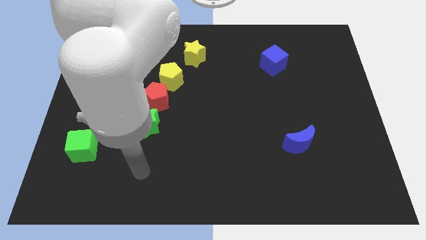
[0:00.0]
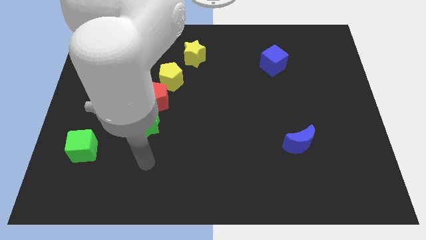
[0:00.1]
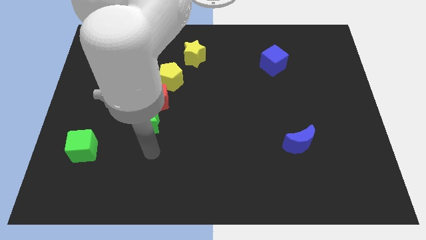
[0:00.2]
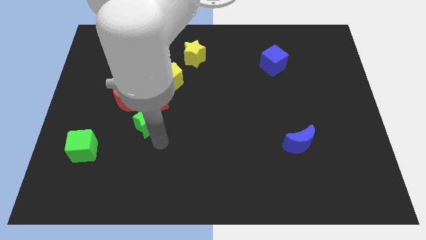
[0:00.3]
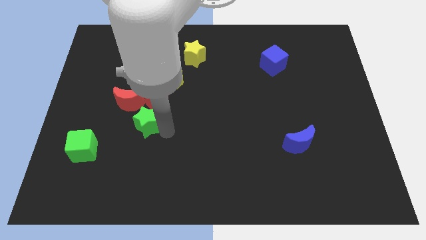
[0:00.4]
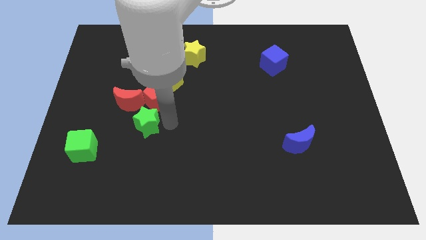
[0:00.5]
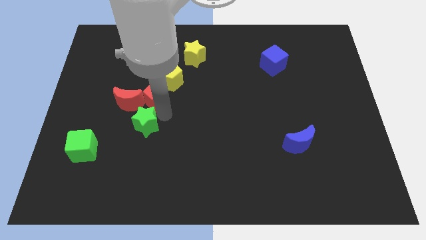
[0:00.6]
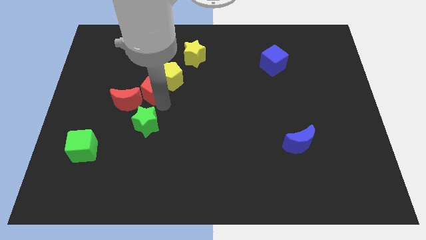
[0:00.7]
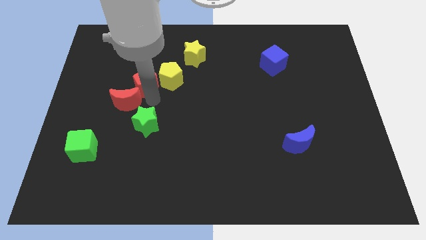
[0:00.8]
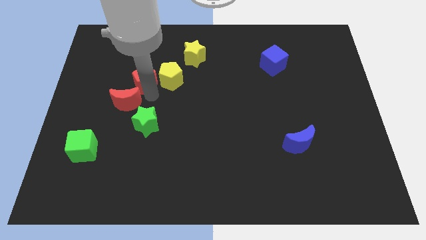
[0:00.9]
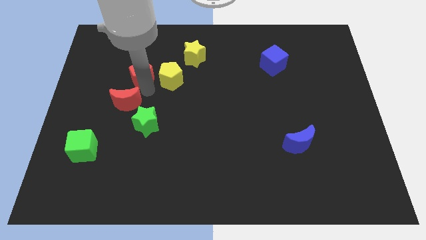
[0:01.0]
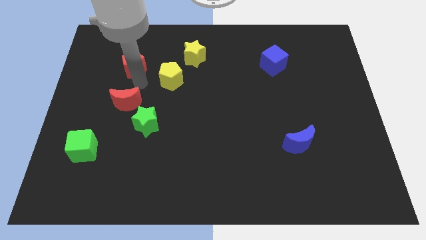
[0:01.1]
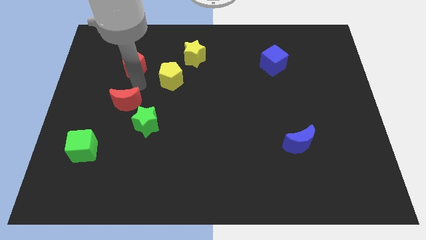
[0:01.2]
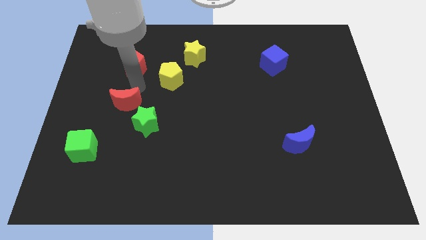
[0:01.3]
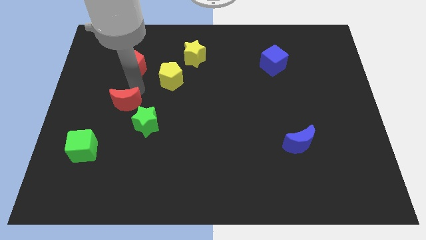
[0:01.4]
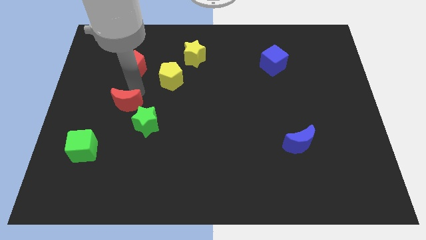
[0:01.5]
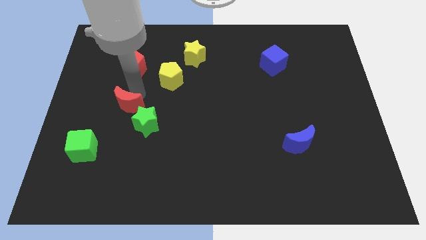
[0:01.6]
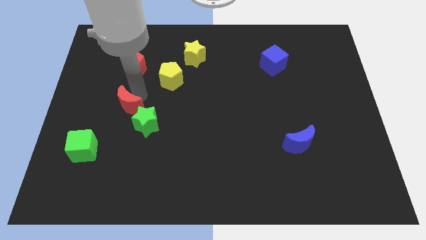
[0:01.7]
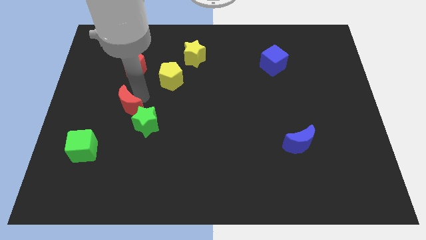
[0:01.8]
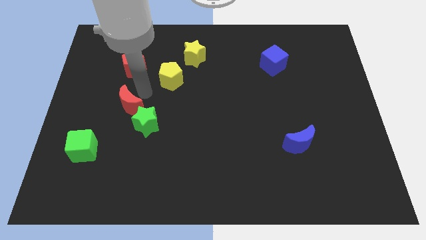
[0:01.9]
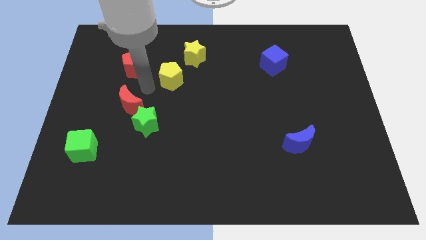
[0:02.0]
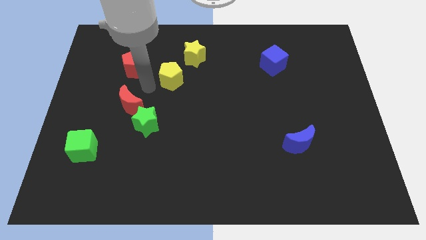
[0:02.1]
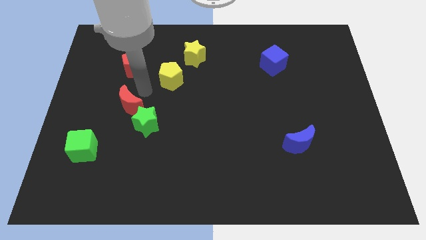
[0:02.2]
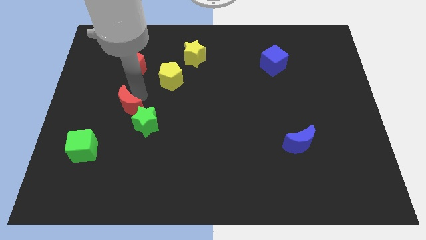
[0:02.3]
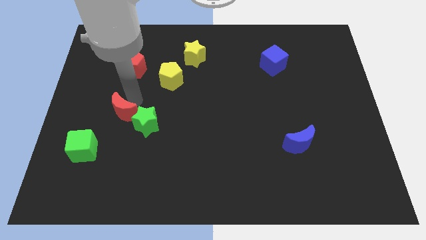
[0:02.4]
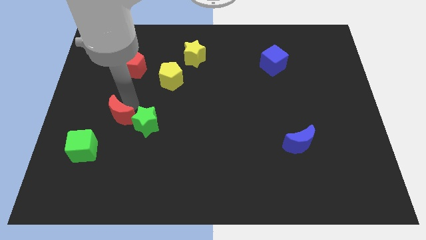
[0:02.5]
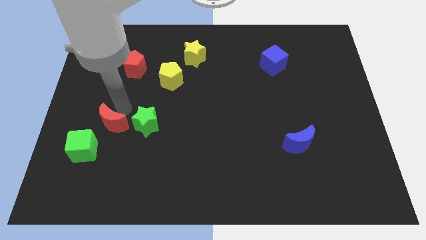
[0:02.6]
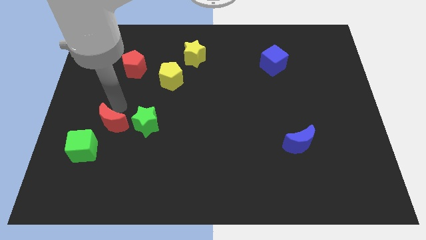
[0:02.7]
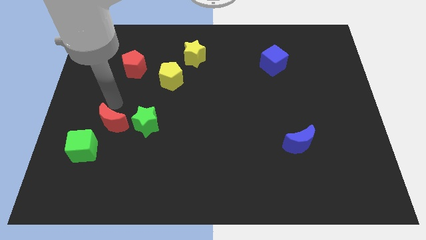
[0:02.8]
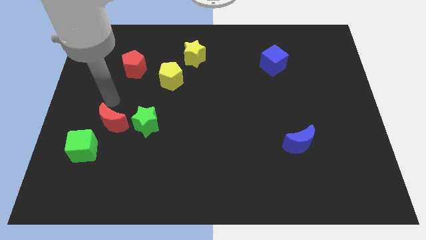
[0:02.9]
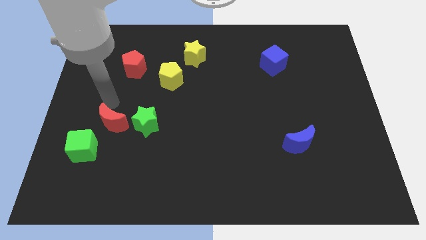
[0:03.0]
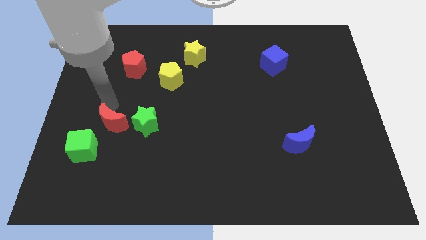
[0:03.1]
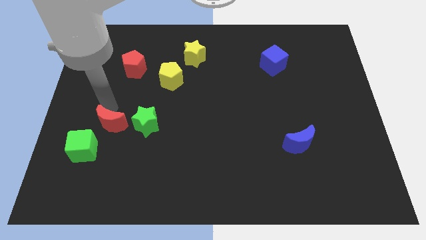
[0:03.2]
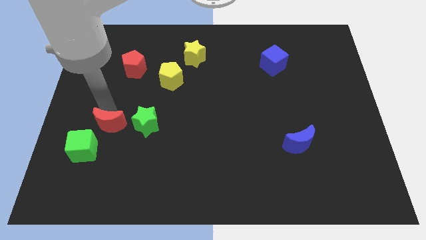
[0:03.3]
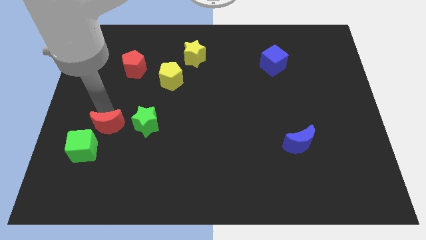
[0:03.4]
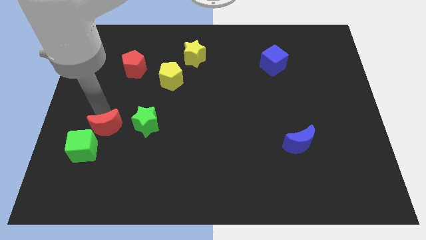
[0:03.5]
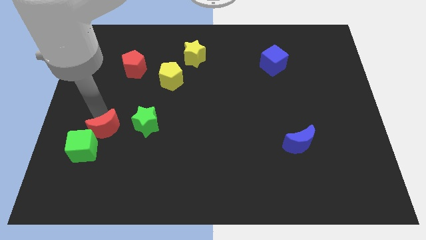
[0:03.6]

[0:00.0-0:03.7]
push the red moon slightly down

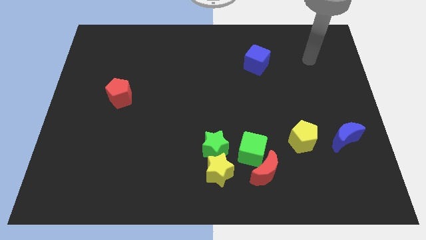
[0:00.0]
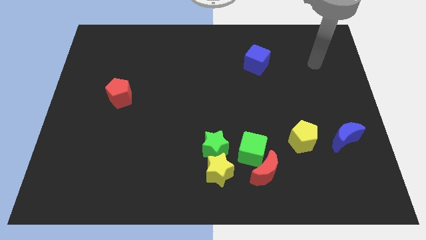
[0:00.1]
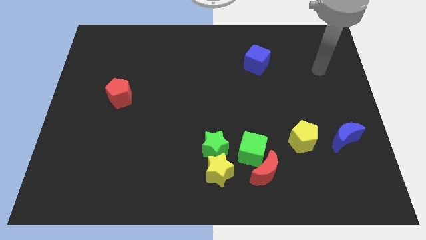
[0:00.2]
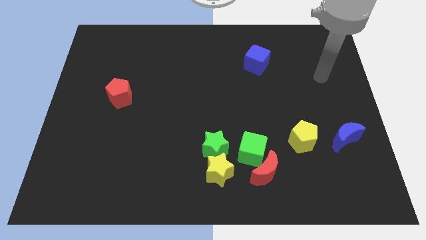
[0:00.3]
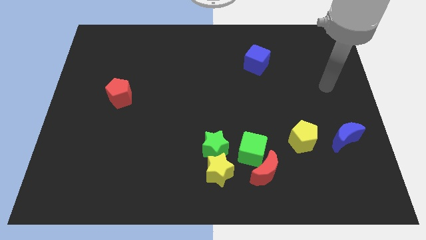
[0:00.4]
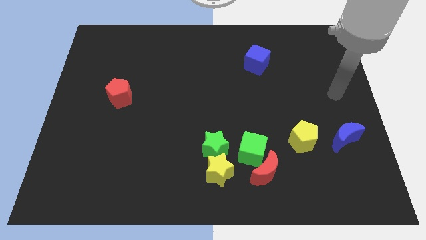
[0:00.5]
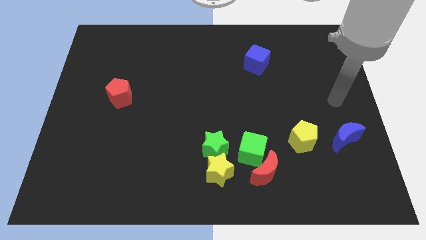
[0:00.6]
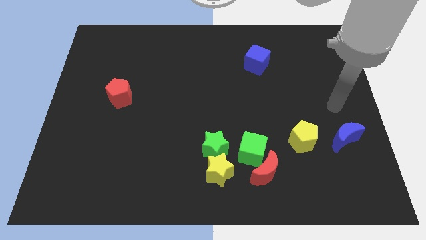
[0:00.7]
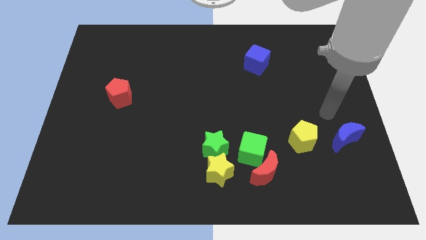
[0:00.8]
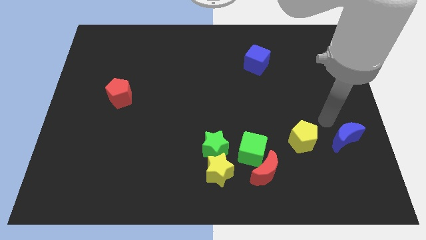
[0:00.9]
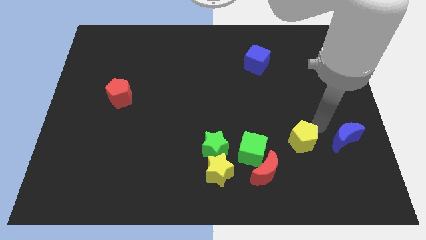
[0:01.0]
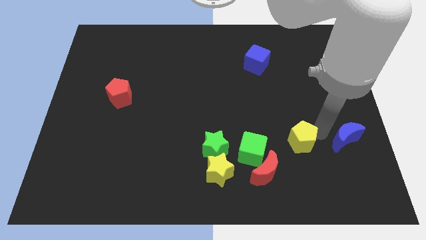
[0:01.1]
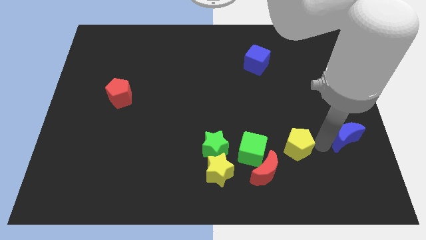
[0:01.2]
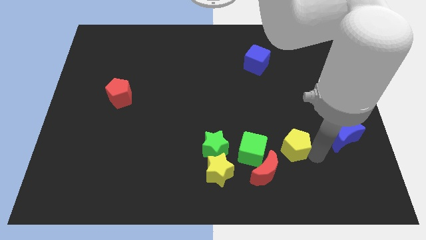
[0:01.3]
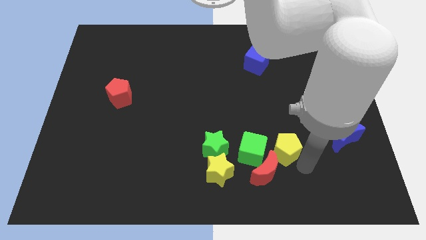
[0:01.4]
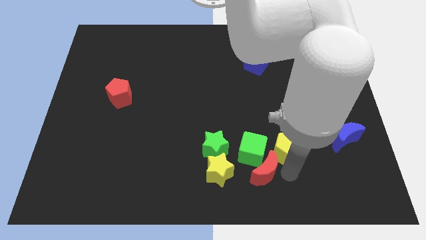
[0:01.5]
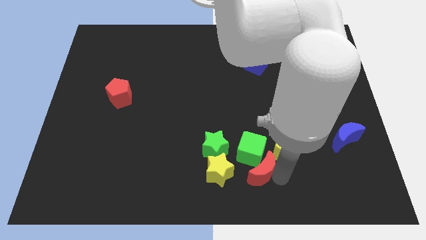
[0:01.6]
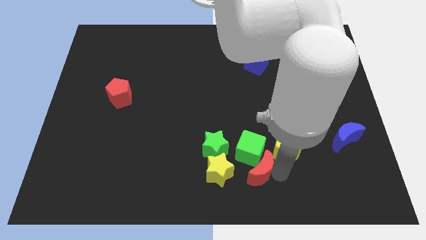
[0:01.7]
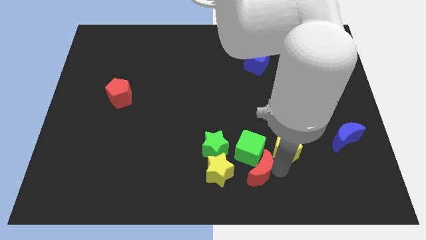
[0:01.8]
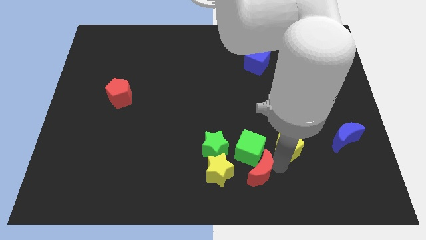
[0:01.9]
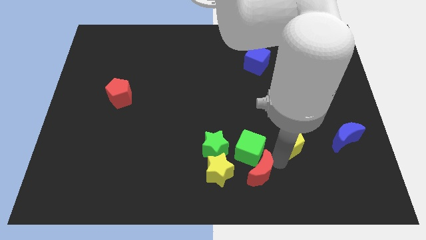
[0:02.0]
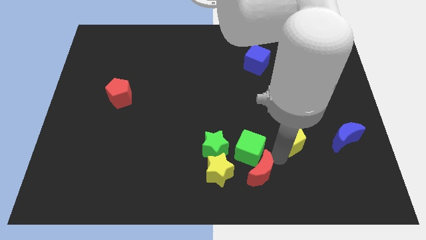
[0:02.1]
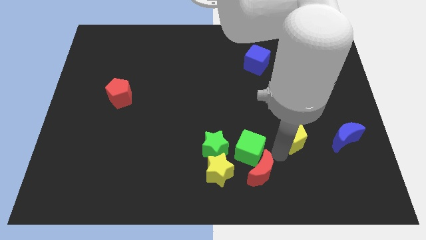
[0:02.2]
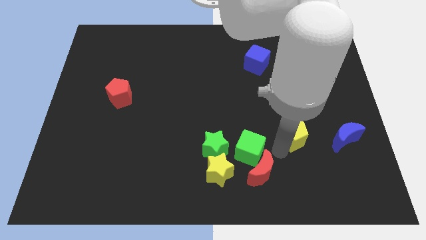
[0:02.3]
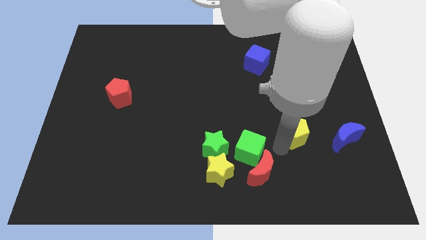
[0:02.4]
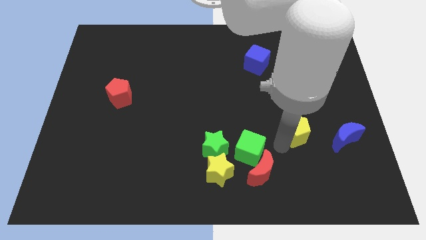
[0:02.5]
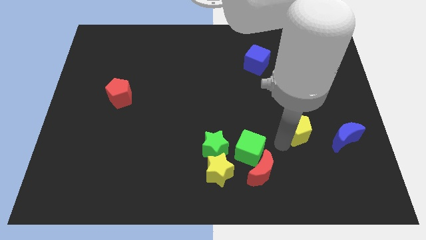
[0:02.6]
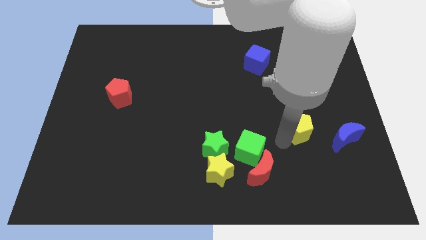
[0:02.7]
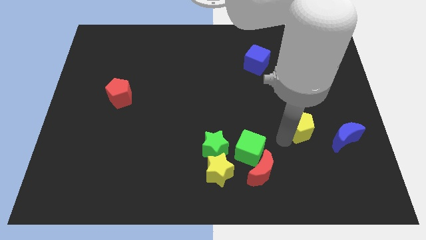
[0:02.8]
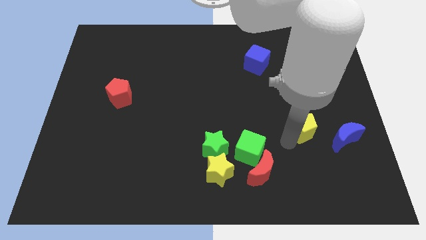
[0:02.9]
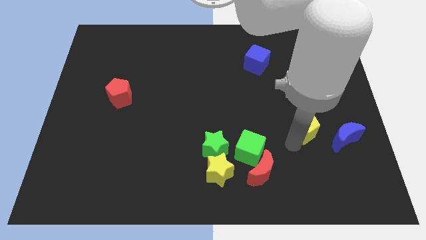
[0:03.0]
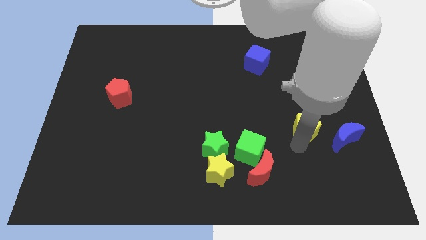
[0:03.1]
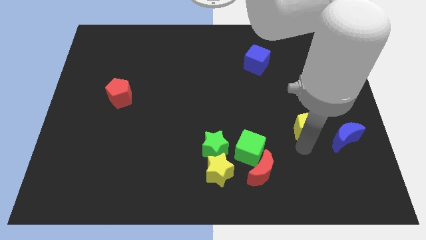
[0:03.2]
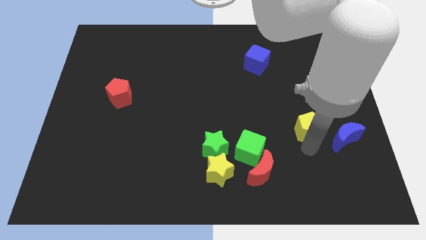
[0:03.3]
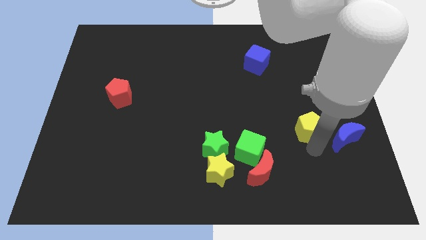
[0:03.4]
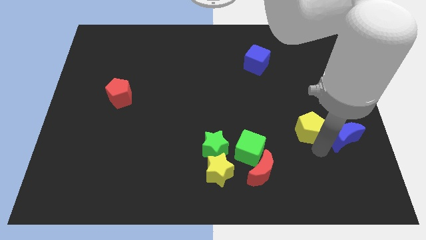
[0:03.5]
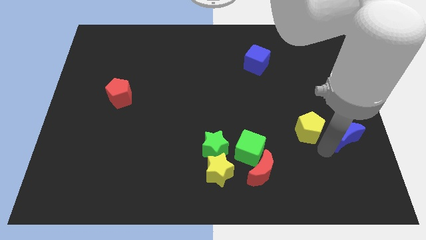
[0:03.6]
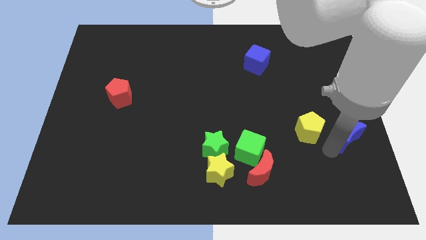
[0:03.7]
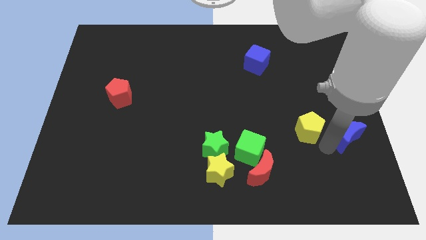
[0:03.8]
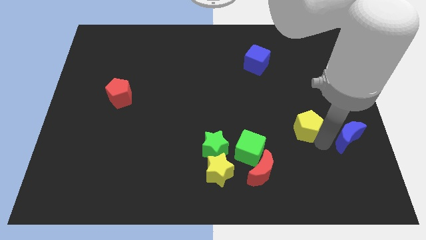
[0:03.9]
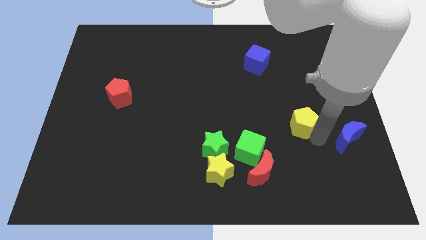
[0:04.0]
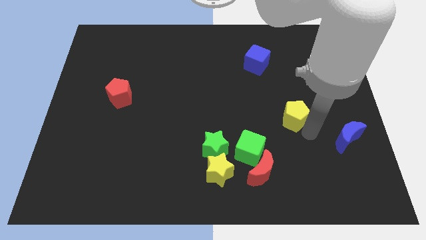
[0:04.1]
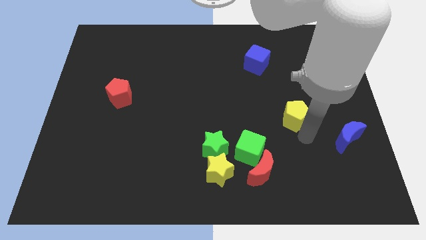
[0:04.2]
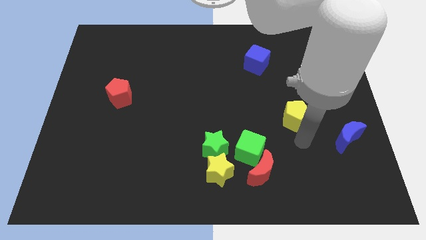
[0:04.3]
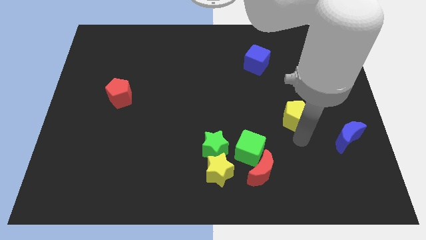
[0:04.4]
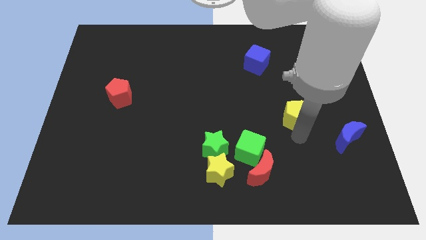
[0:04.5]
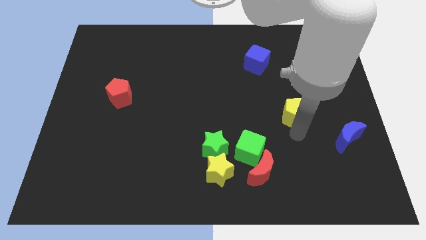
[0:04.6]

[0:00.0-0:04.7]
slide the yellow pentagon a little upwards
